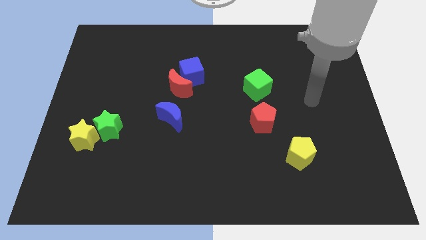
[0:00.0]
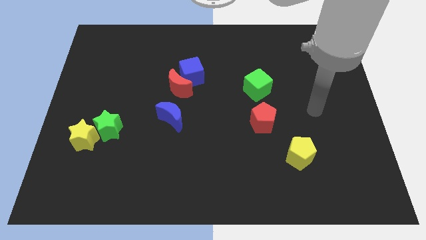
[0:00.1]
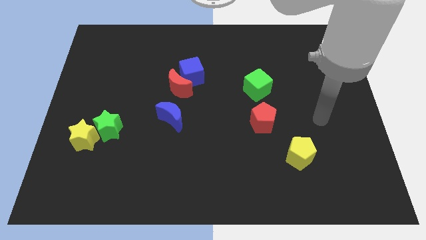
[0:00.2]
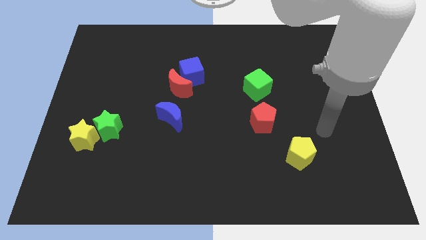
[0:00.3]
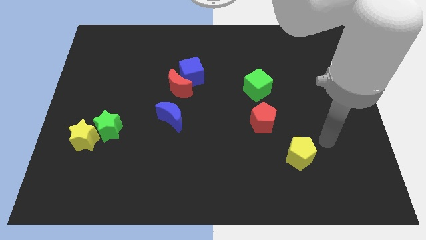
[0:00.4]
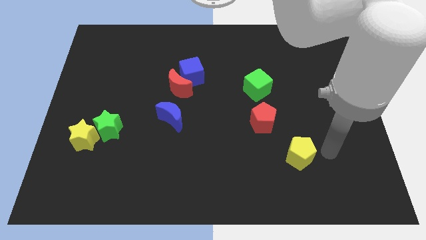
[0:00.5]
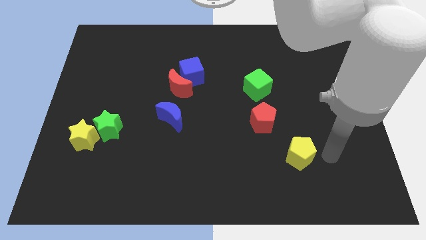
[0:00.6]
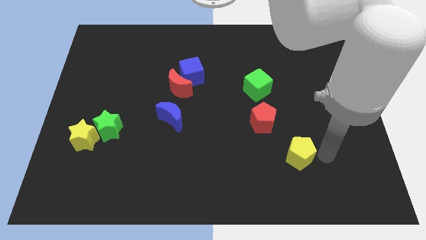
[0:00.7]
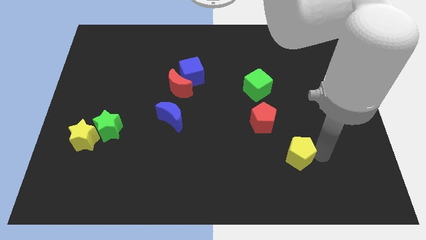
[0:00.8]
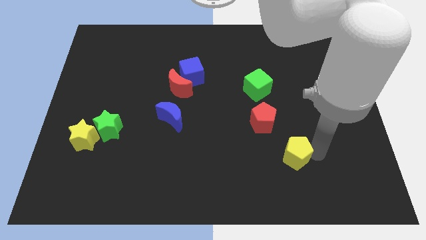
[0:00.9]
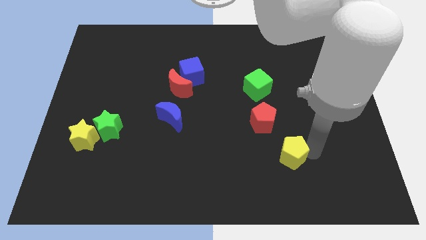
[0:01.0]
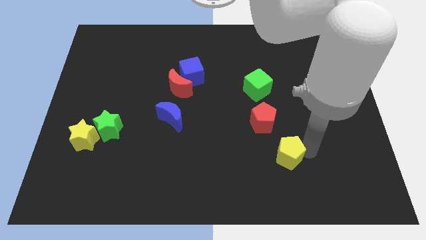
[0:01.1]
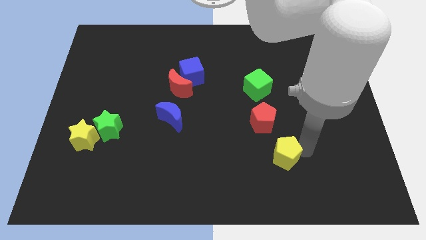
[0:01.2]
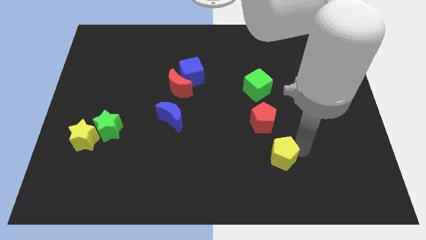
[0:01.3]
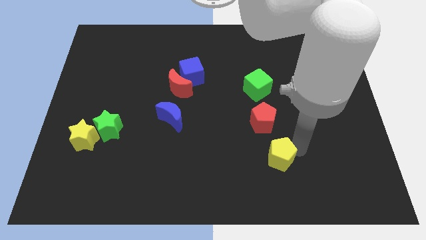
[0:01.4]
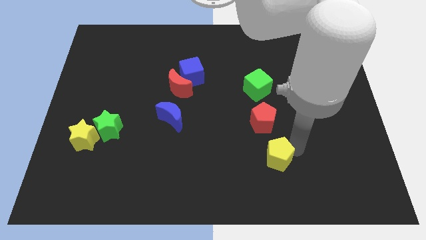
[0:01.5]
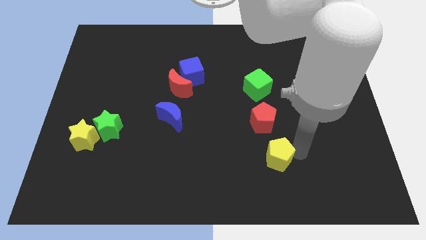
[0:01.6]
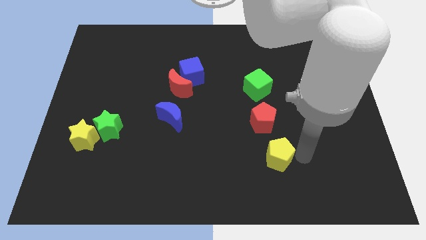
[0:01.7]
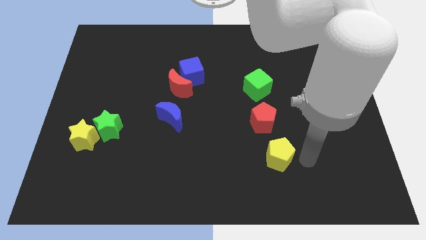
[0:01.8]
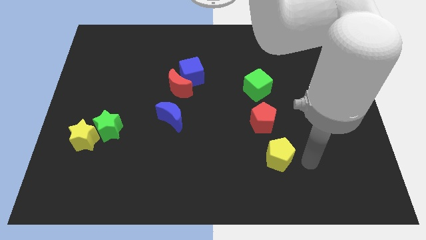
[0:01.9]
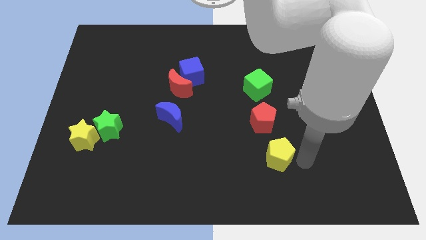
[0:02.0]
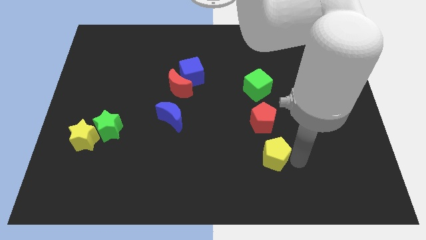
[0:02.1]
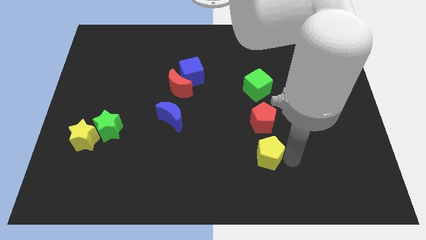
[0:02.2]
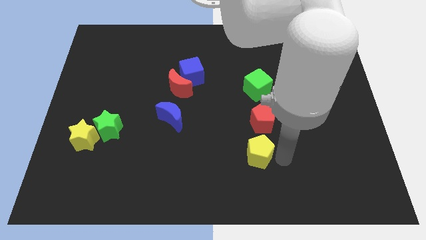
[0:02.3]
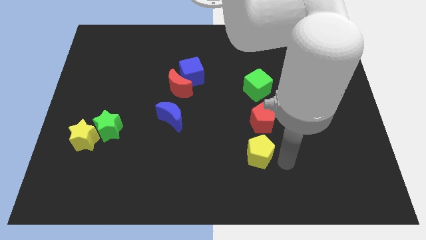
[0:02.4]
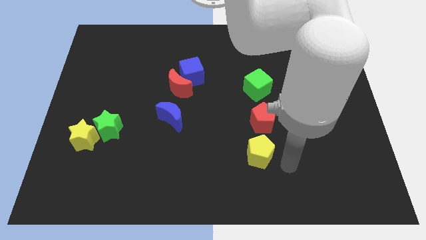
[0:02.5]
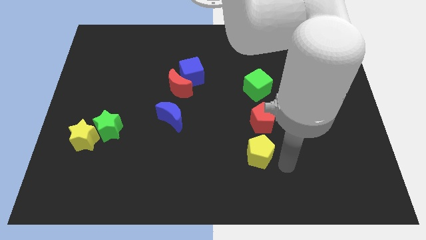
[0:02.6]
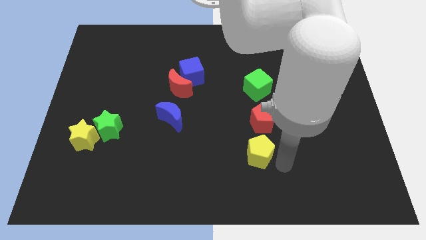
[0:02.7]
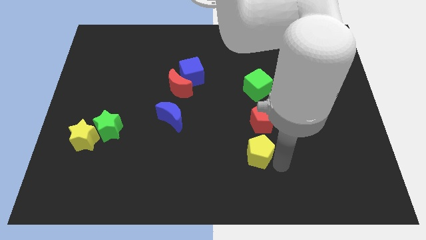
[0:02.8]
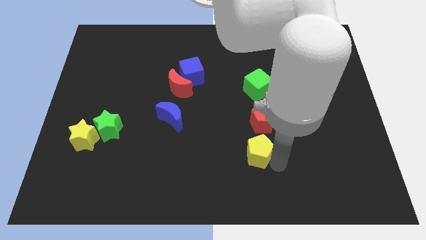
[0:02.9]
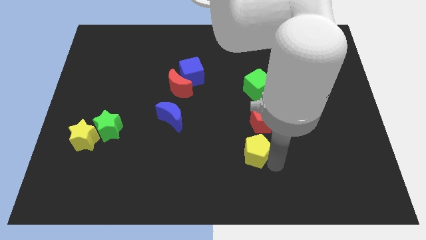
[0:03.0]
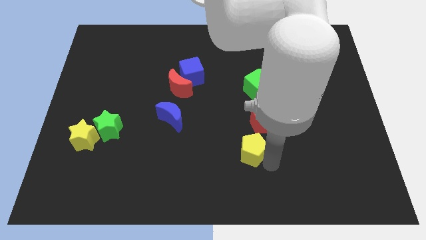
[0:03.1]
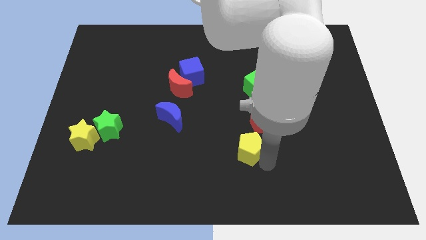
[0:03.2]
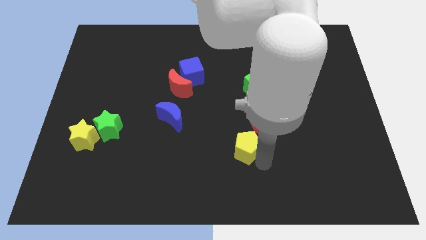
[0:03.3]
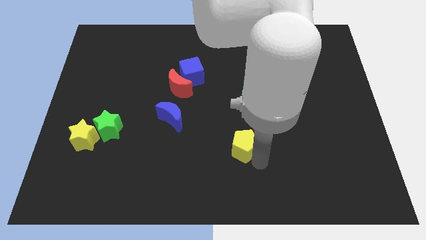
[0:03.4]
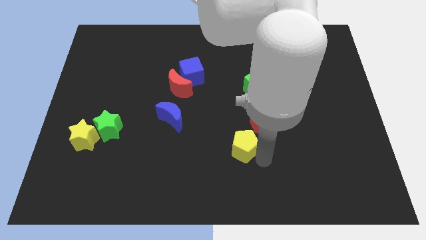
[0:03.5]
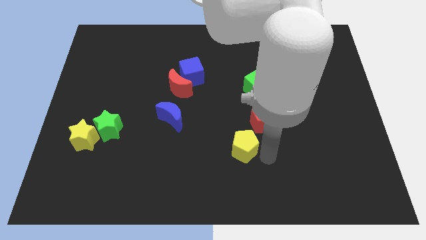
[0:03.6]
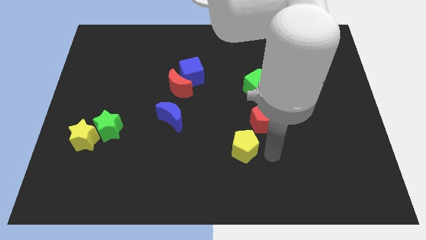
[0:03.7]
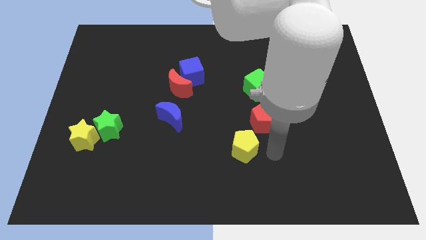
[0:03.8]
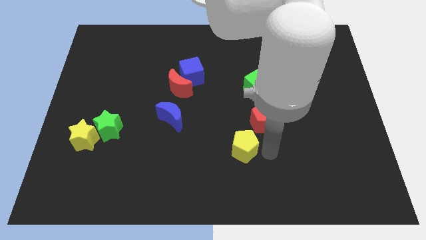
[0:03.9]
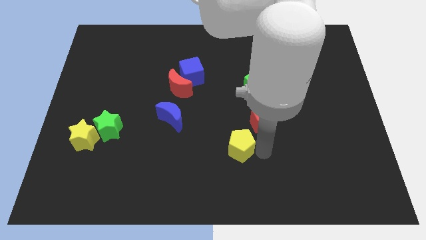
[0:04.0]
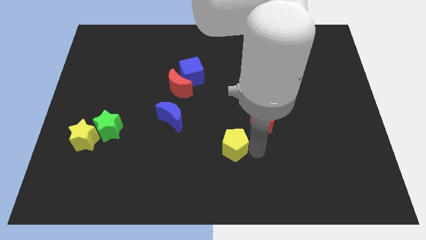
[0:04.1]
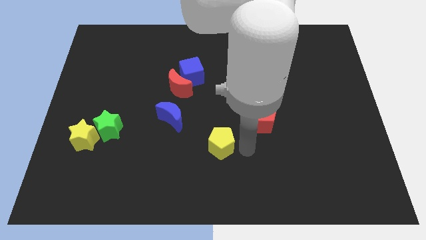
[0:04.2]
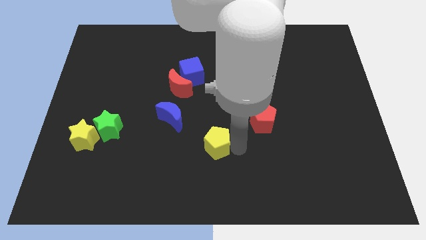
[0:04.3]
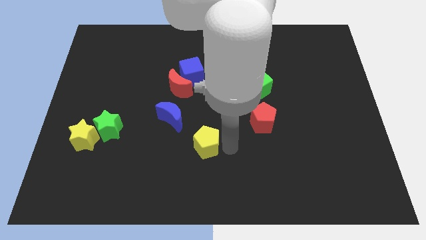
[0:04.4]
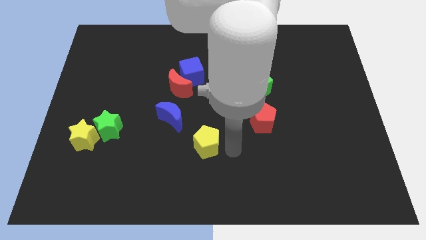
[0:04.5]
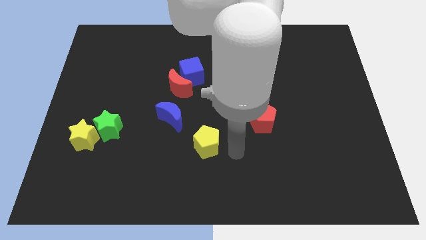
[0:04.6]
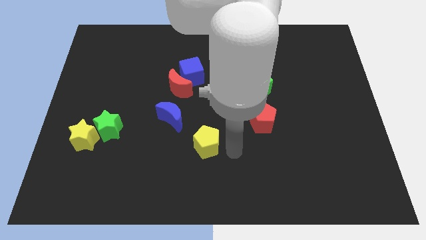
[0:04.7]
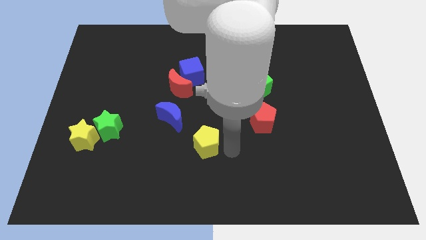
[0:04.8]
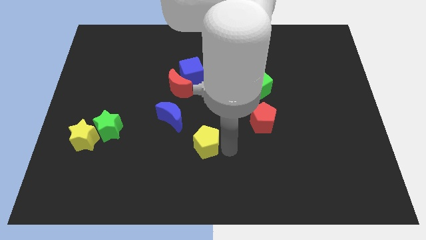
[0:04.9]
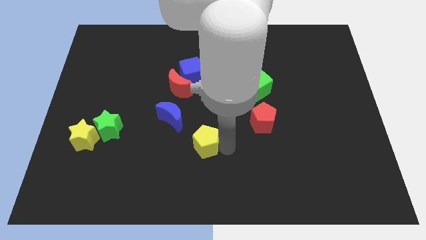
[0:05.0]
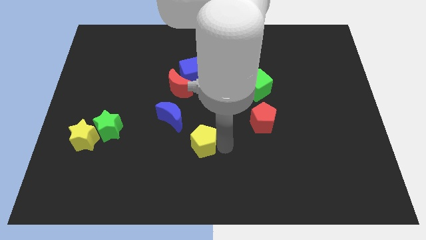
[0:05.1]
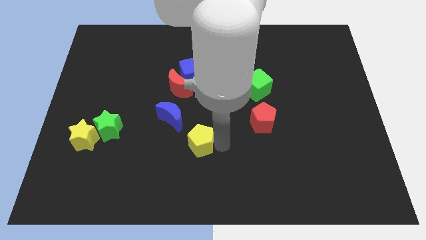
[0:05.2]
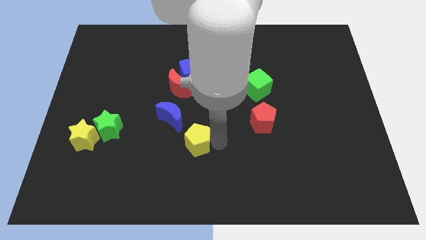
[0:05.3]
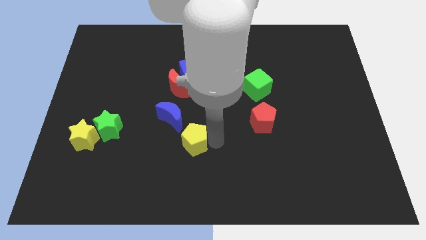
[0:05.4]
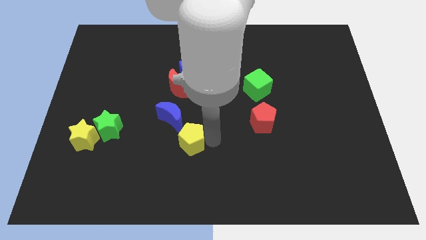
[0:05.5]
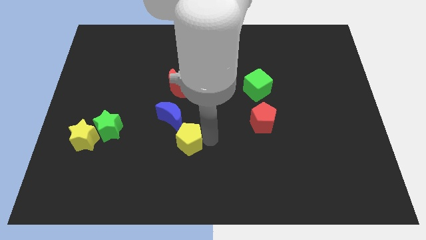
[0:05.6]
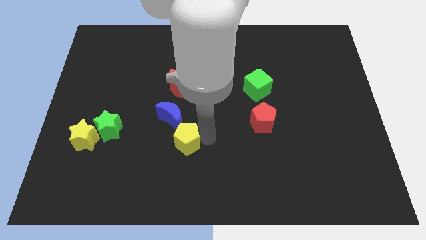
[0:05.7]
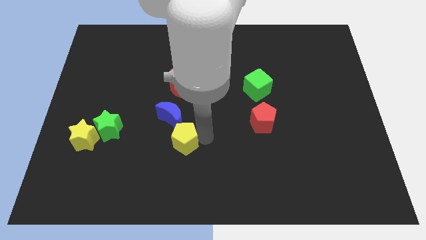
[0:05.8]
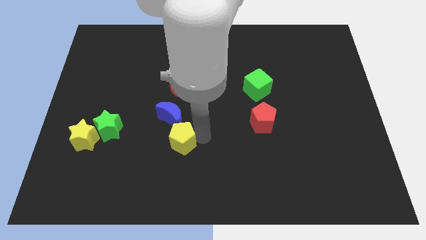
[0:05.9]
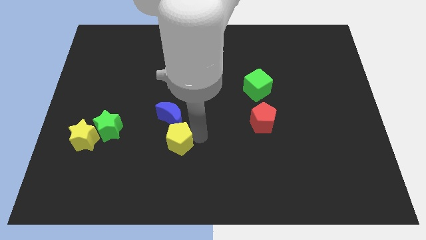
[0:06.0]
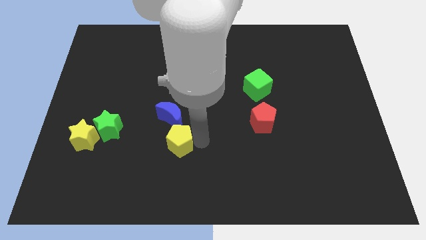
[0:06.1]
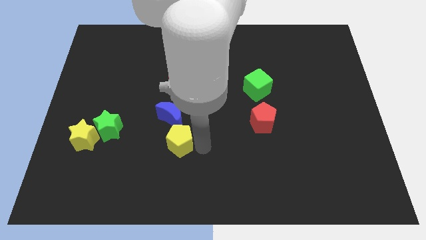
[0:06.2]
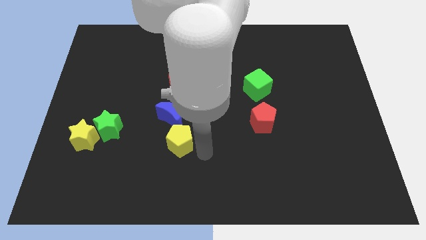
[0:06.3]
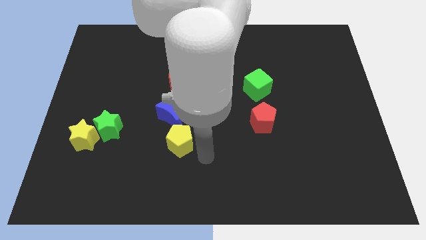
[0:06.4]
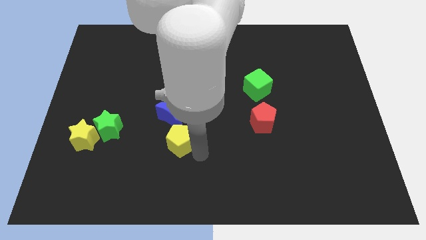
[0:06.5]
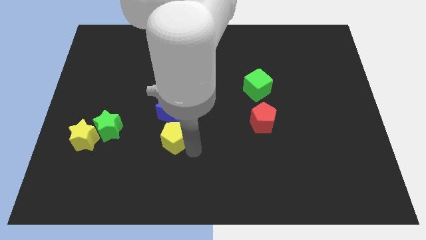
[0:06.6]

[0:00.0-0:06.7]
move the yellow pentagon to the right of the green star
